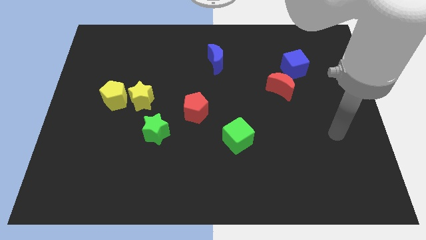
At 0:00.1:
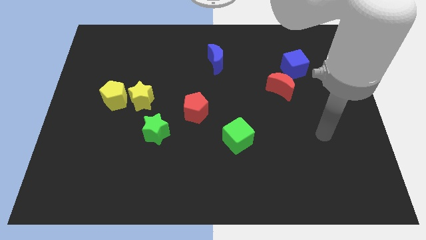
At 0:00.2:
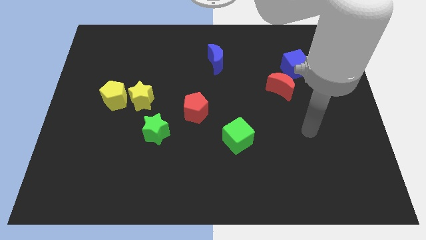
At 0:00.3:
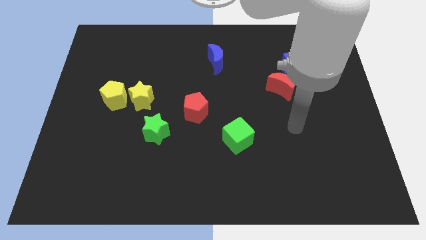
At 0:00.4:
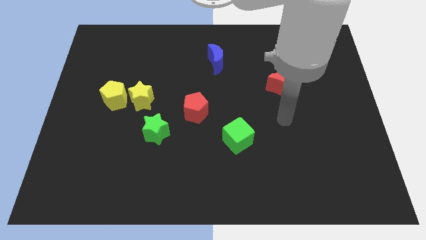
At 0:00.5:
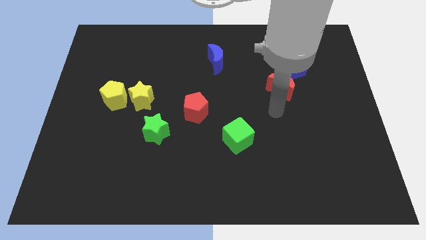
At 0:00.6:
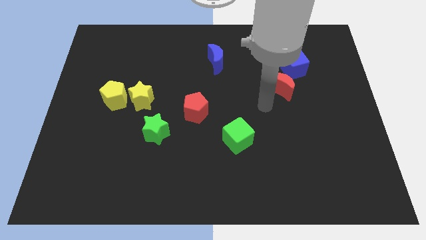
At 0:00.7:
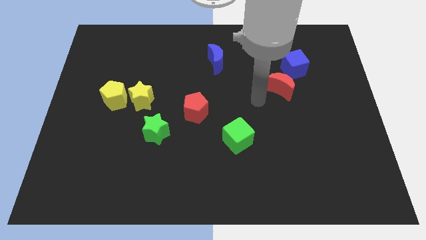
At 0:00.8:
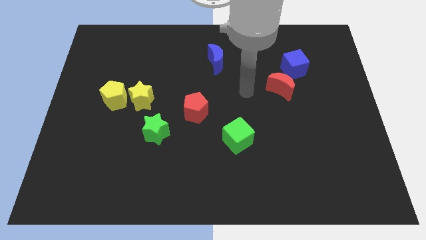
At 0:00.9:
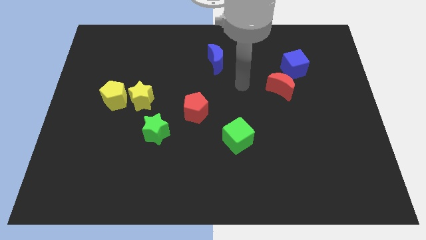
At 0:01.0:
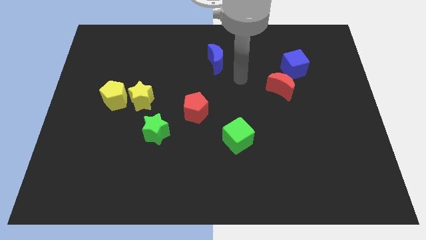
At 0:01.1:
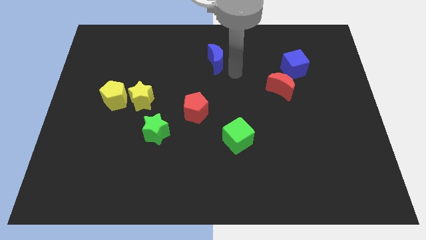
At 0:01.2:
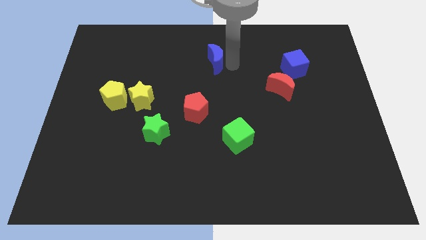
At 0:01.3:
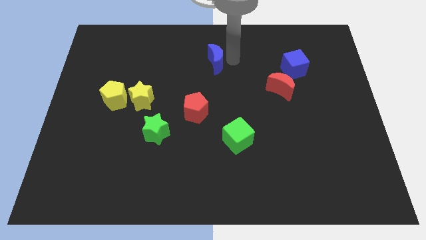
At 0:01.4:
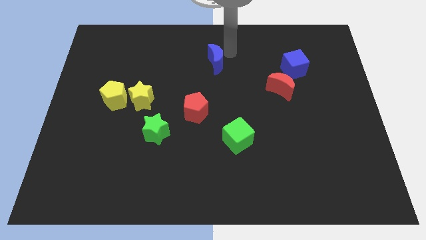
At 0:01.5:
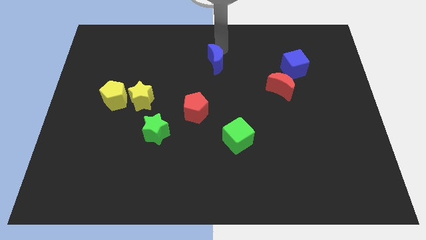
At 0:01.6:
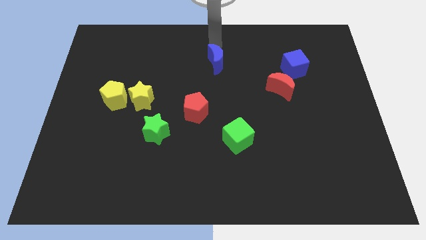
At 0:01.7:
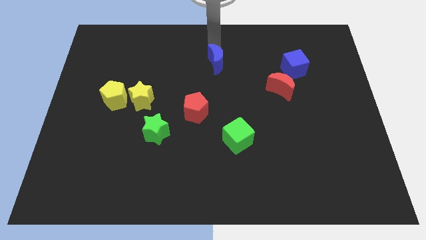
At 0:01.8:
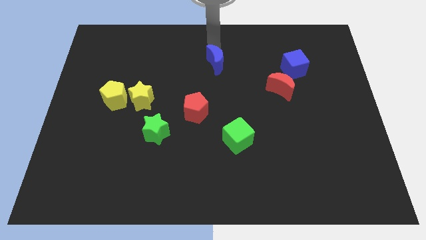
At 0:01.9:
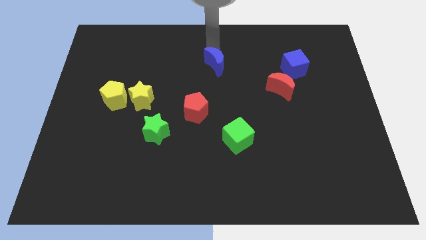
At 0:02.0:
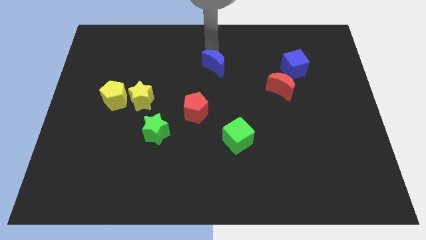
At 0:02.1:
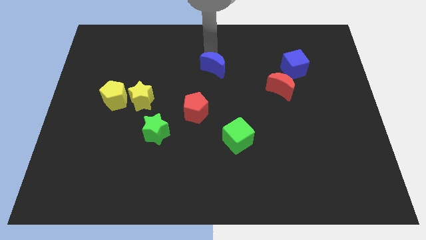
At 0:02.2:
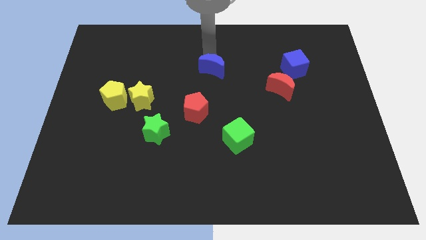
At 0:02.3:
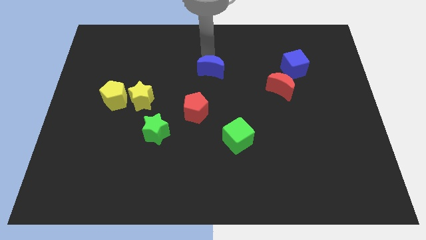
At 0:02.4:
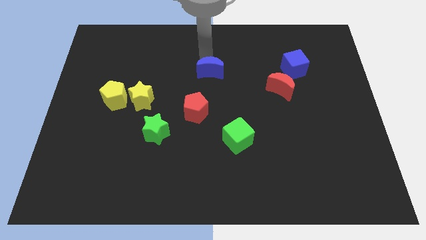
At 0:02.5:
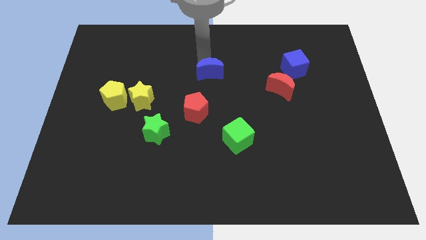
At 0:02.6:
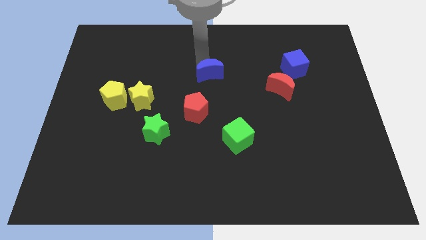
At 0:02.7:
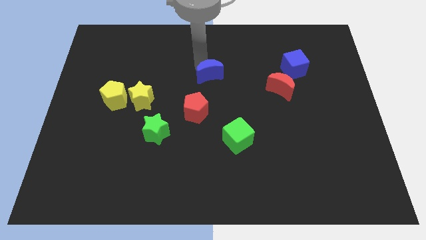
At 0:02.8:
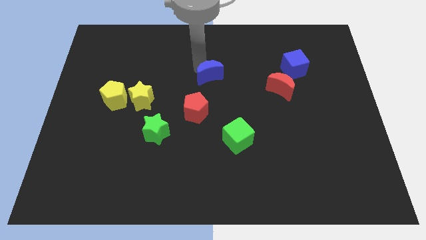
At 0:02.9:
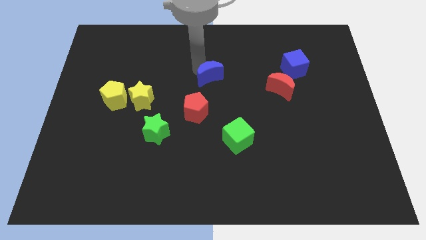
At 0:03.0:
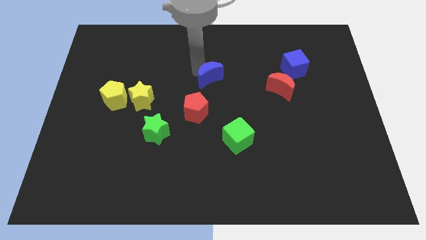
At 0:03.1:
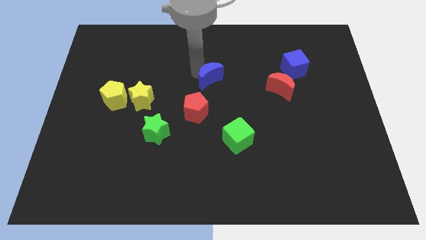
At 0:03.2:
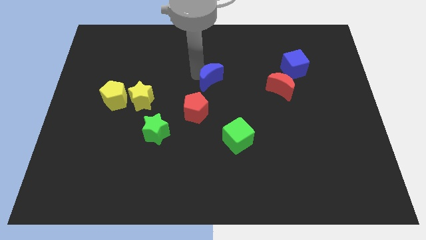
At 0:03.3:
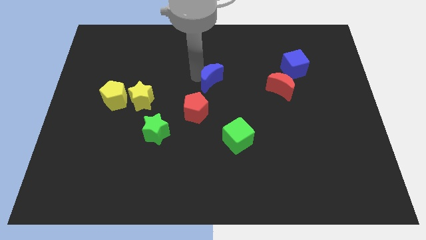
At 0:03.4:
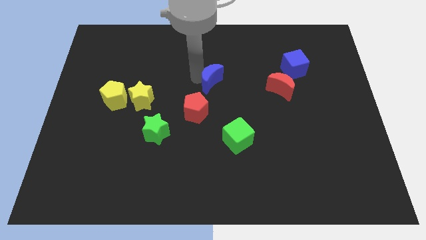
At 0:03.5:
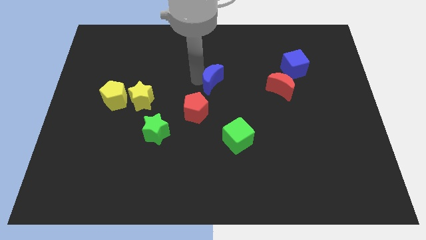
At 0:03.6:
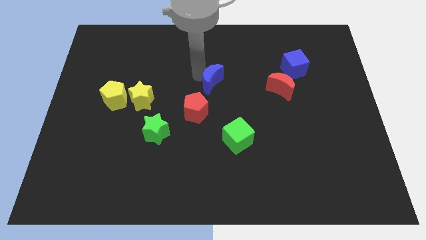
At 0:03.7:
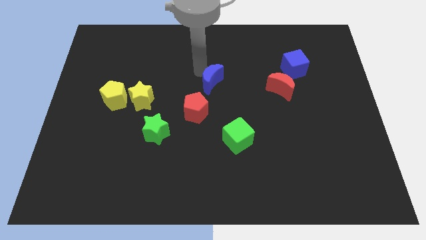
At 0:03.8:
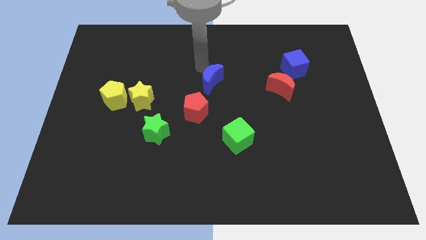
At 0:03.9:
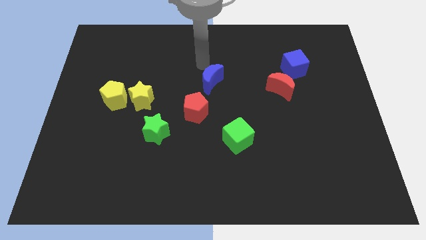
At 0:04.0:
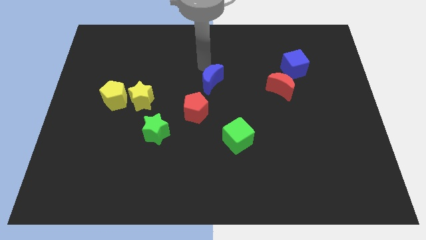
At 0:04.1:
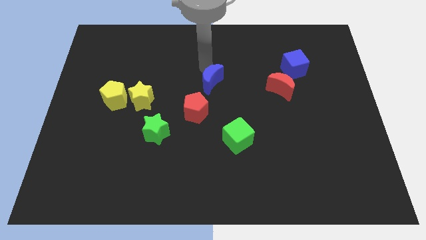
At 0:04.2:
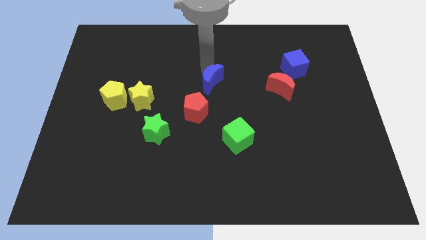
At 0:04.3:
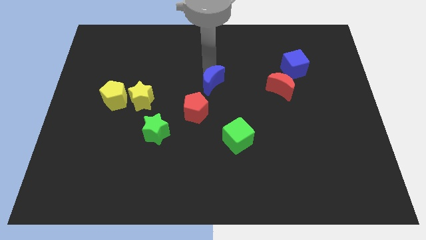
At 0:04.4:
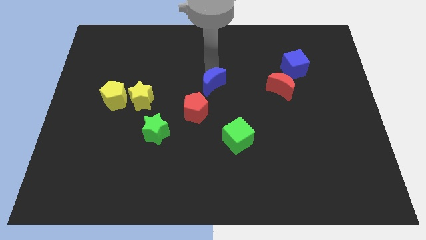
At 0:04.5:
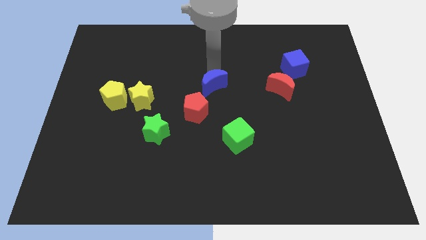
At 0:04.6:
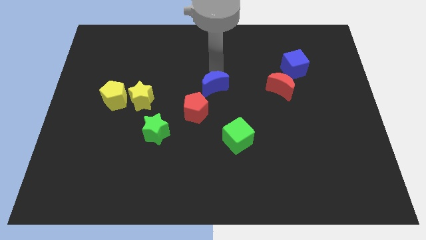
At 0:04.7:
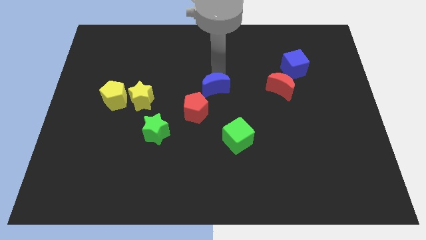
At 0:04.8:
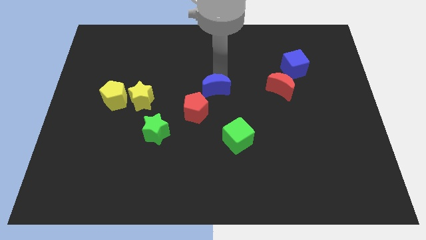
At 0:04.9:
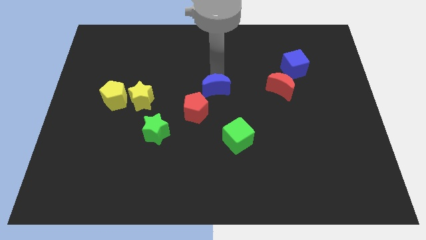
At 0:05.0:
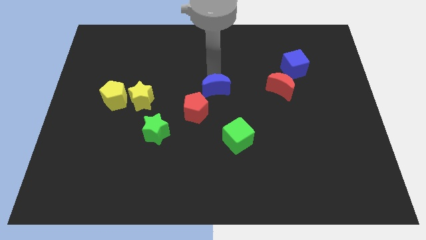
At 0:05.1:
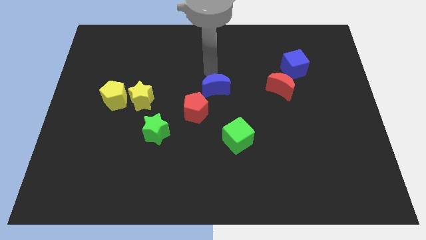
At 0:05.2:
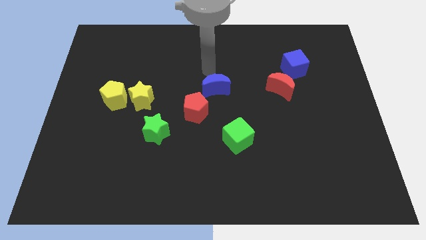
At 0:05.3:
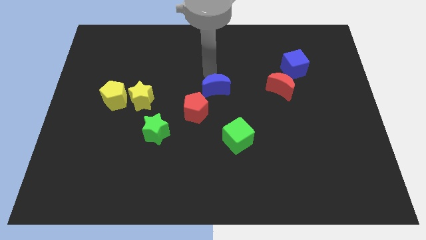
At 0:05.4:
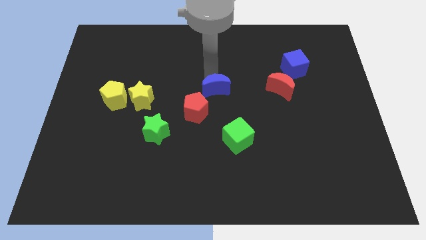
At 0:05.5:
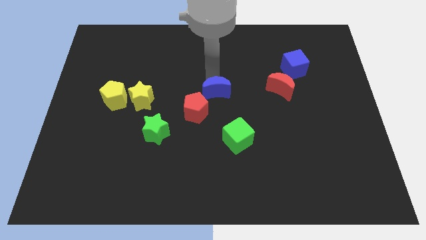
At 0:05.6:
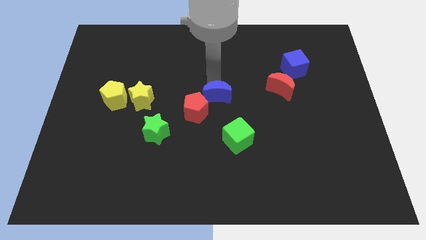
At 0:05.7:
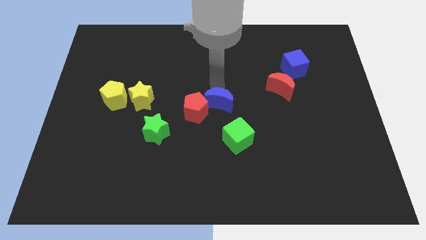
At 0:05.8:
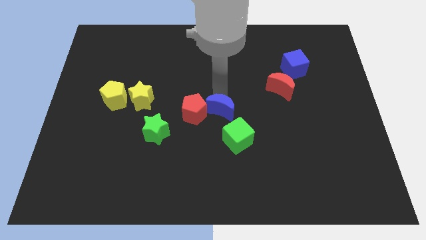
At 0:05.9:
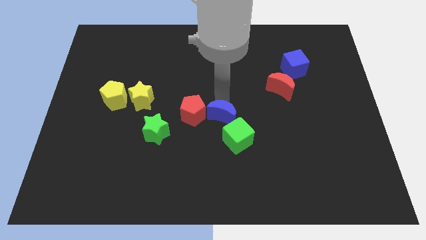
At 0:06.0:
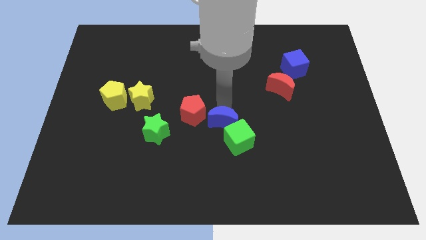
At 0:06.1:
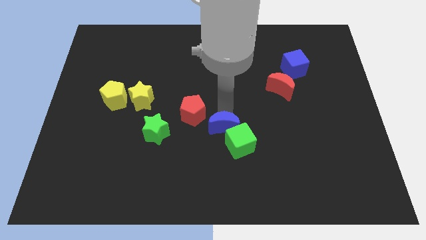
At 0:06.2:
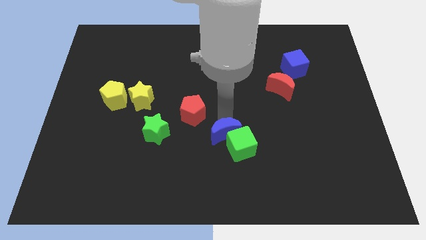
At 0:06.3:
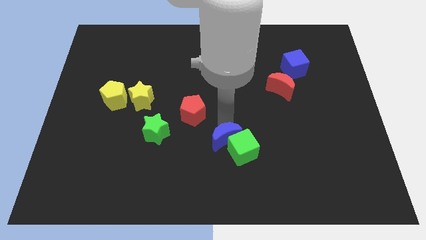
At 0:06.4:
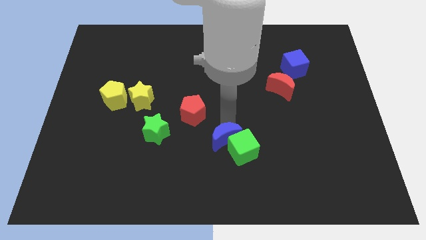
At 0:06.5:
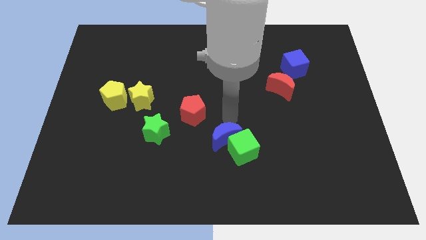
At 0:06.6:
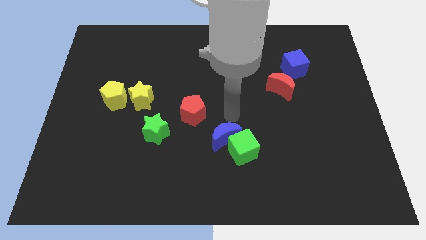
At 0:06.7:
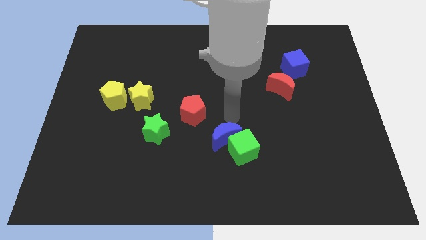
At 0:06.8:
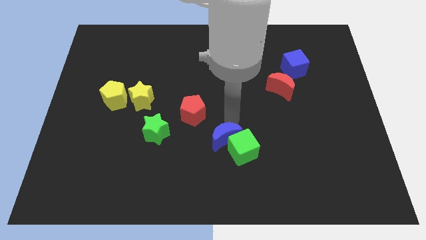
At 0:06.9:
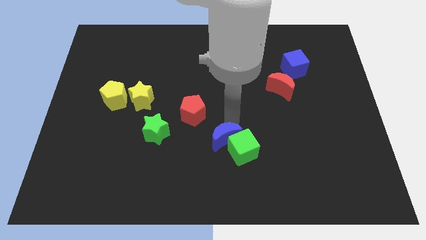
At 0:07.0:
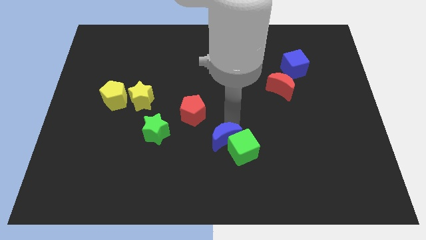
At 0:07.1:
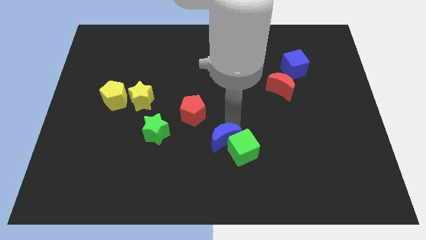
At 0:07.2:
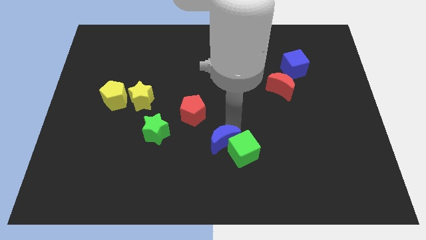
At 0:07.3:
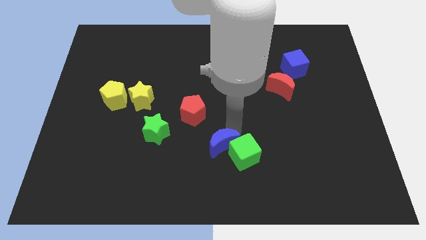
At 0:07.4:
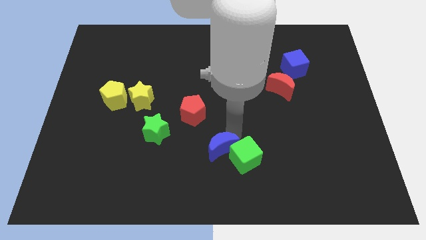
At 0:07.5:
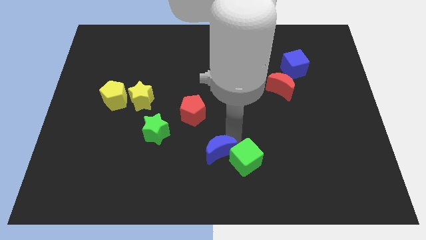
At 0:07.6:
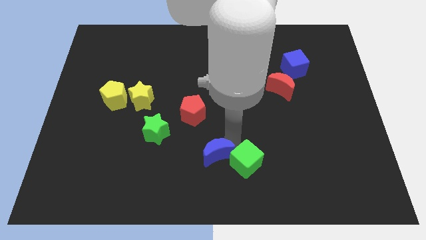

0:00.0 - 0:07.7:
push the blue moon to the bottom side
